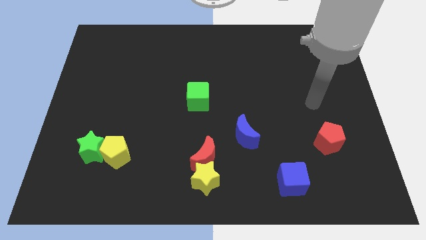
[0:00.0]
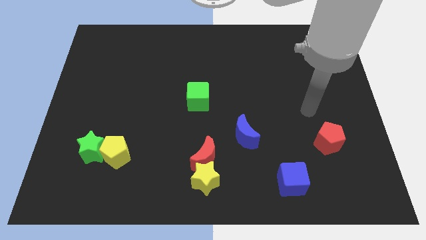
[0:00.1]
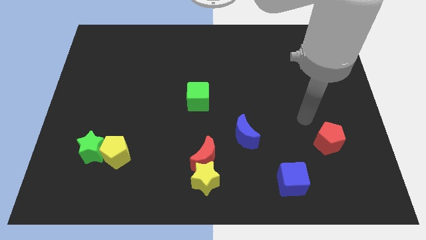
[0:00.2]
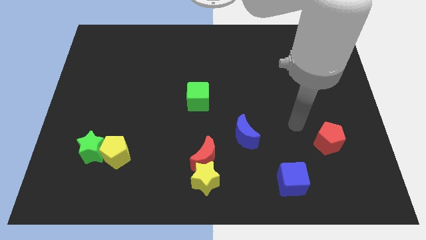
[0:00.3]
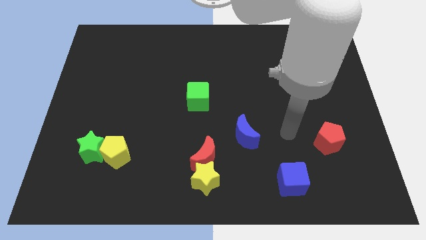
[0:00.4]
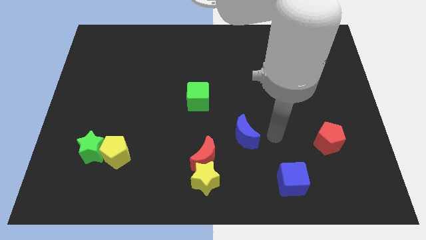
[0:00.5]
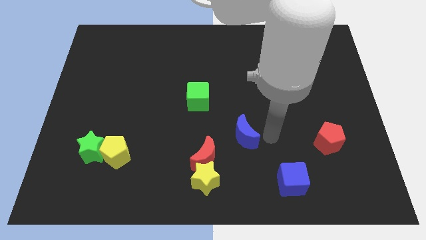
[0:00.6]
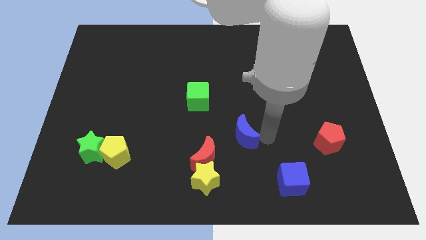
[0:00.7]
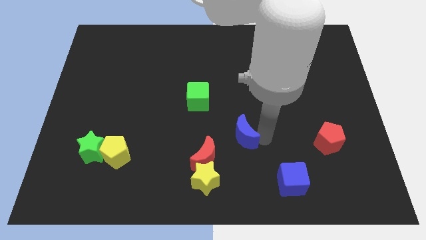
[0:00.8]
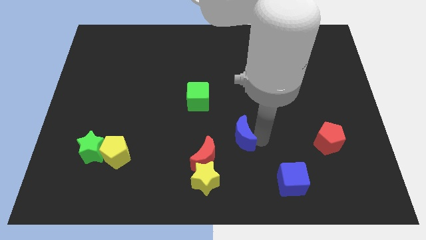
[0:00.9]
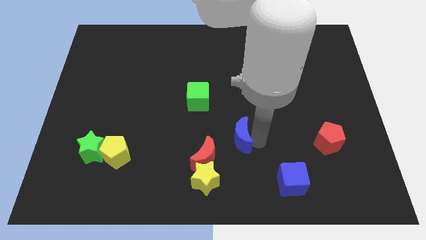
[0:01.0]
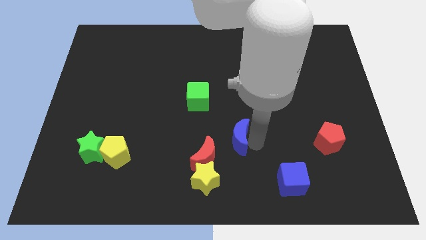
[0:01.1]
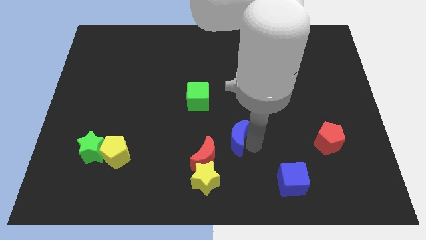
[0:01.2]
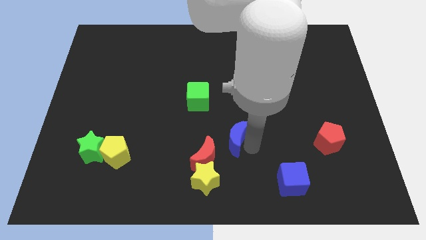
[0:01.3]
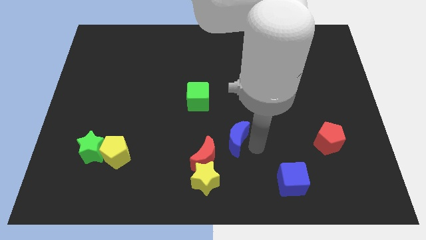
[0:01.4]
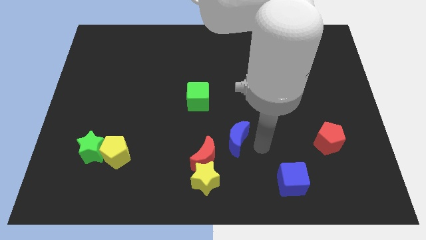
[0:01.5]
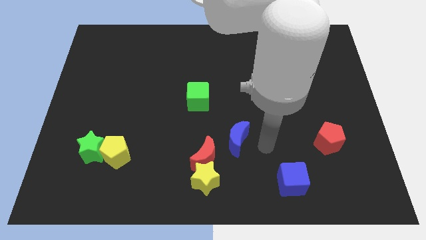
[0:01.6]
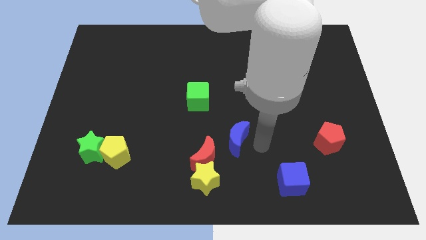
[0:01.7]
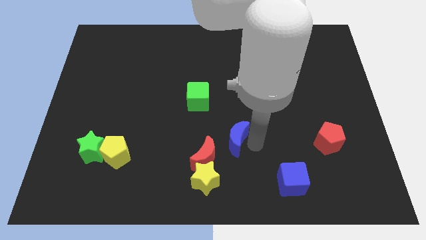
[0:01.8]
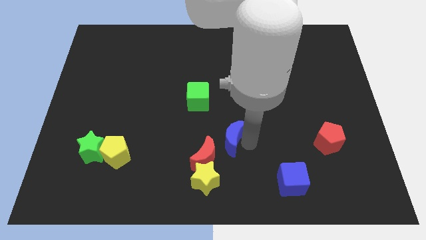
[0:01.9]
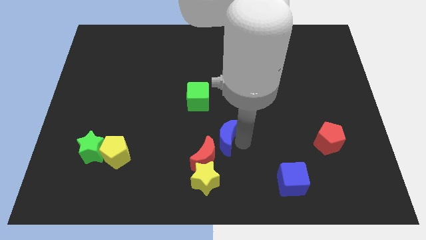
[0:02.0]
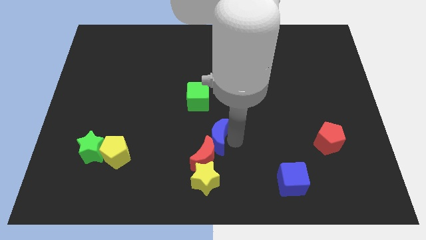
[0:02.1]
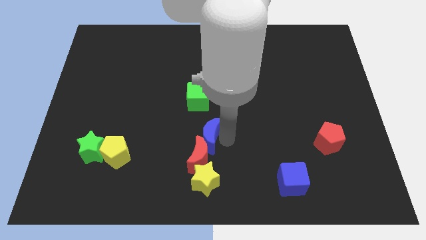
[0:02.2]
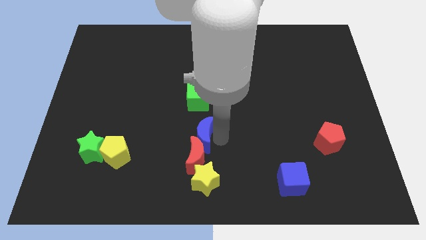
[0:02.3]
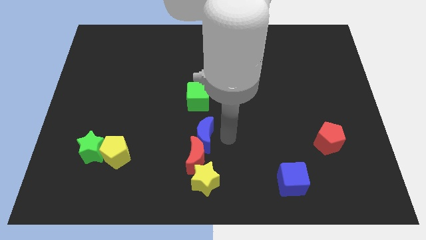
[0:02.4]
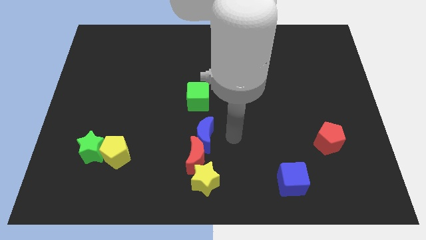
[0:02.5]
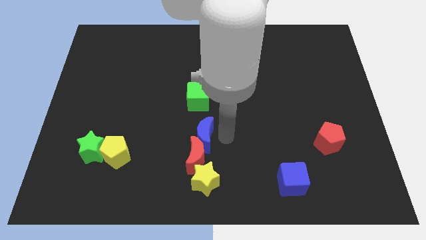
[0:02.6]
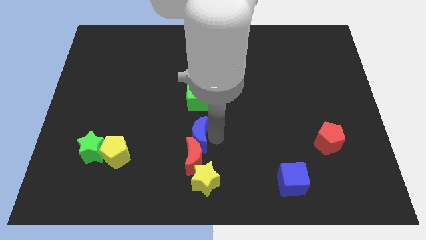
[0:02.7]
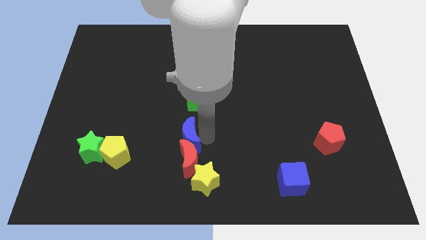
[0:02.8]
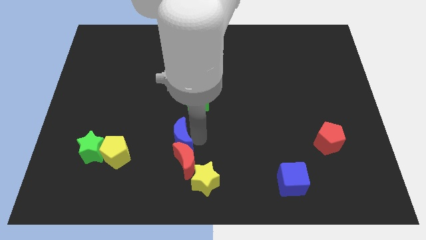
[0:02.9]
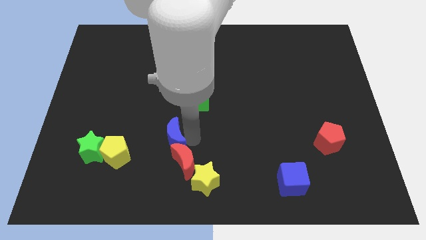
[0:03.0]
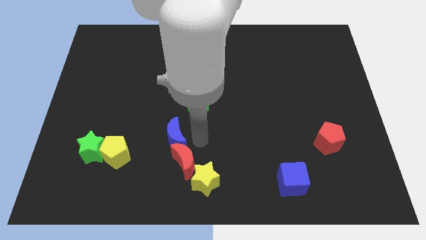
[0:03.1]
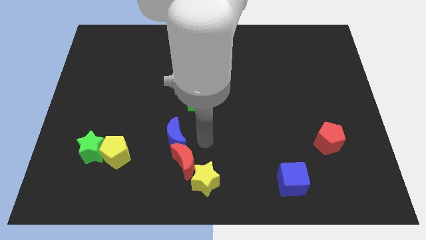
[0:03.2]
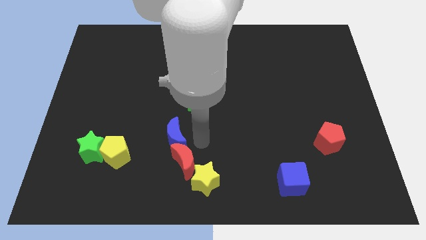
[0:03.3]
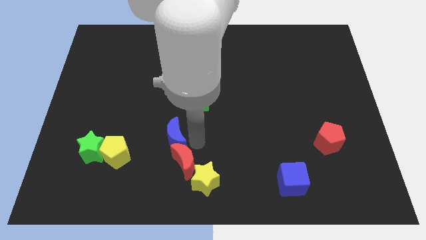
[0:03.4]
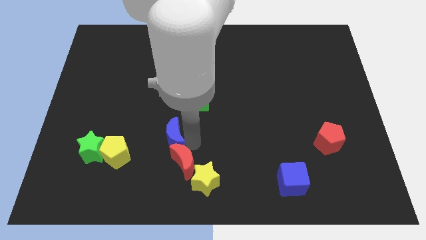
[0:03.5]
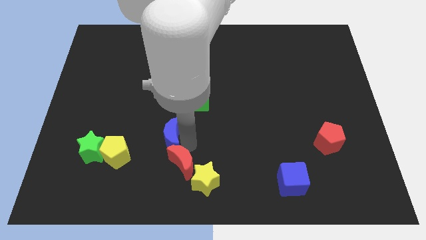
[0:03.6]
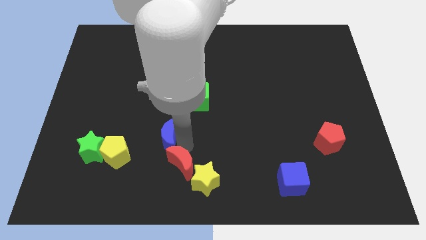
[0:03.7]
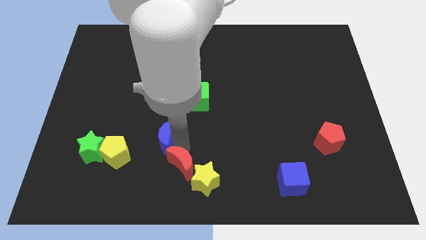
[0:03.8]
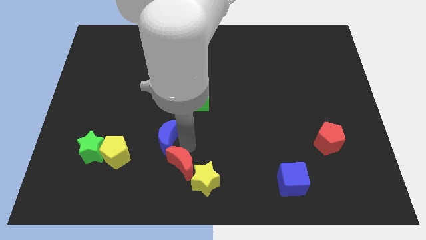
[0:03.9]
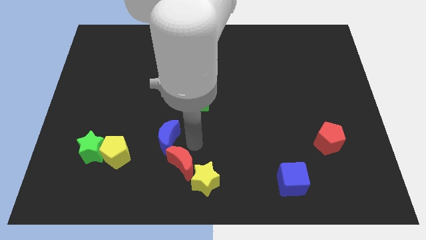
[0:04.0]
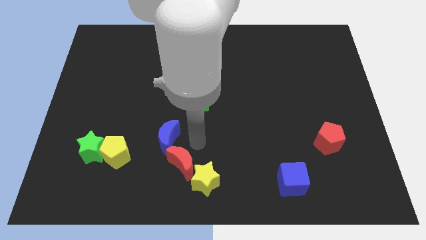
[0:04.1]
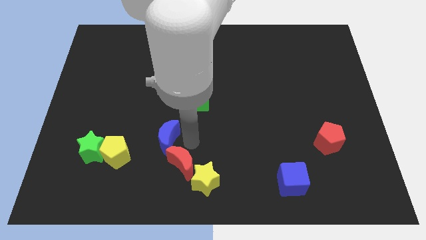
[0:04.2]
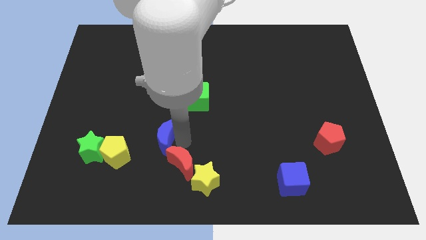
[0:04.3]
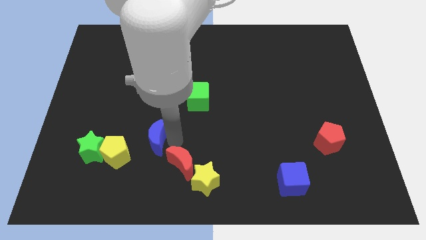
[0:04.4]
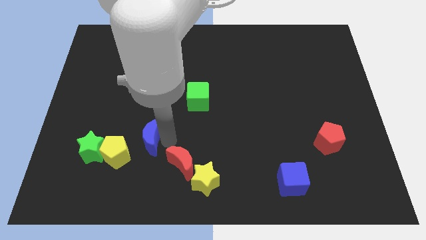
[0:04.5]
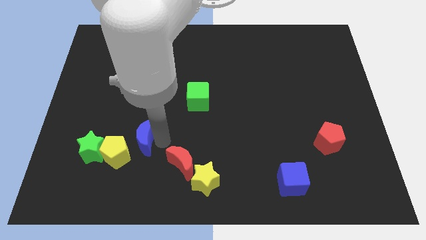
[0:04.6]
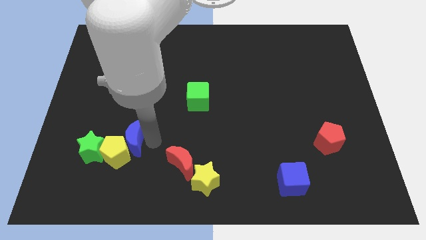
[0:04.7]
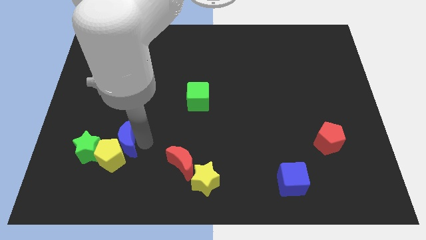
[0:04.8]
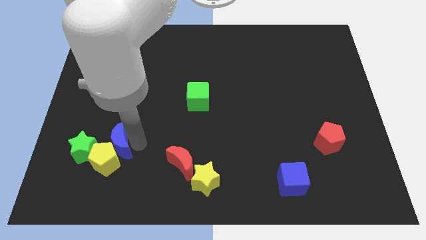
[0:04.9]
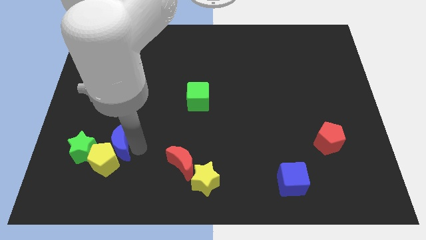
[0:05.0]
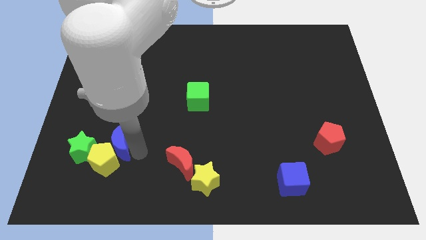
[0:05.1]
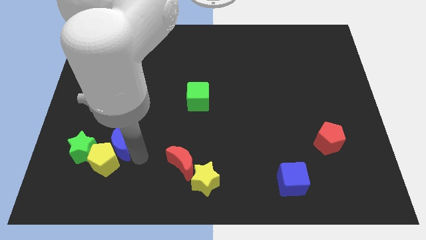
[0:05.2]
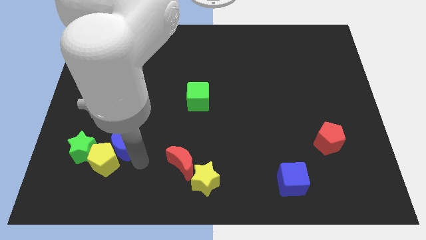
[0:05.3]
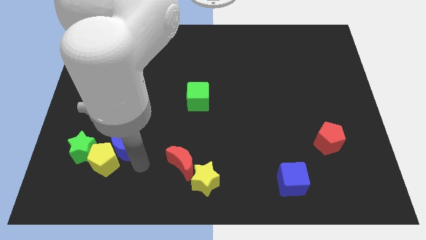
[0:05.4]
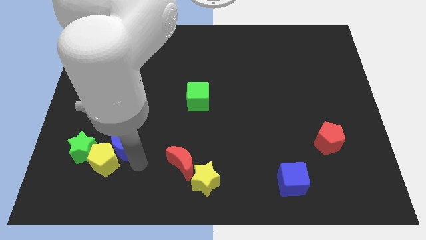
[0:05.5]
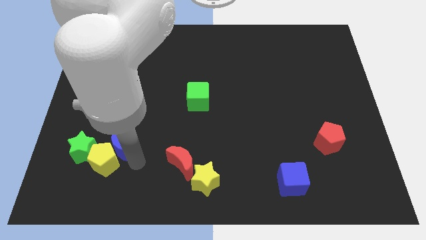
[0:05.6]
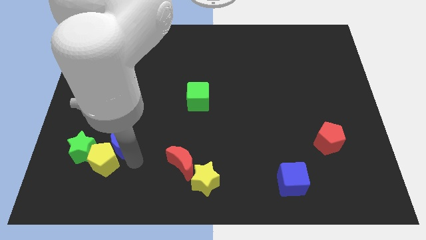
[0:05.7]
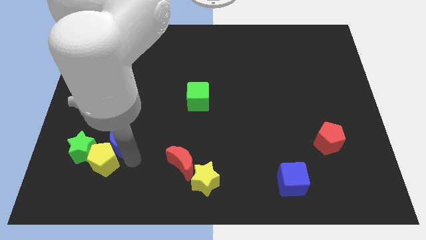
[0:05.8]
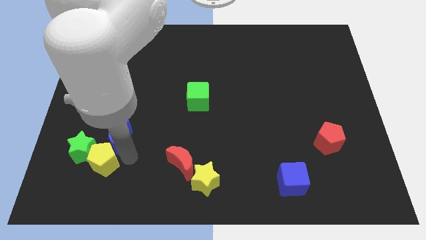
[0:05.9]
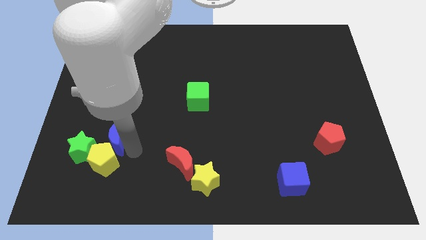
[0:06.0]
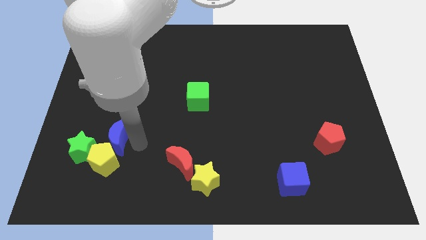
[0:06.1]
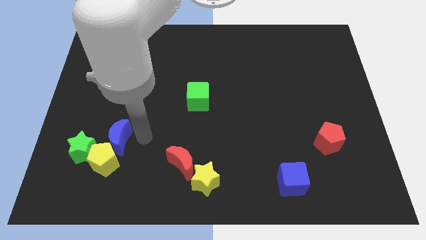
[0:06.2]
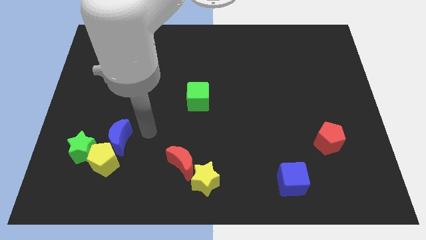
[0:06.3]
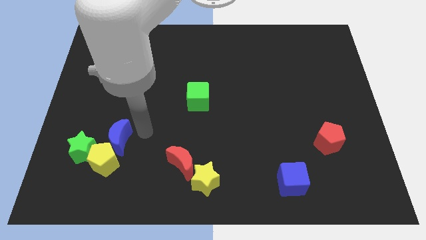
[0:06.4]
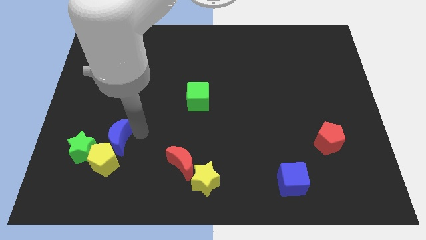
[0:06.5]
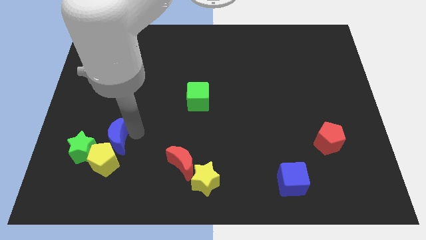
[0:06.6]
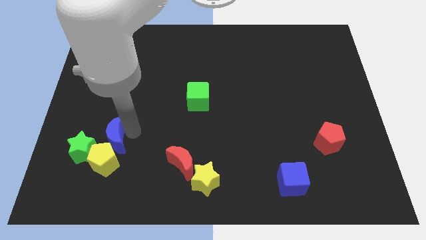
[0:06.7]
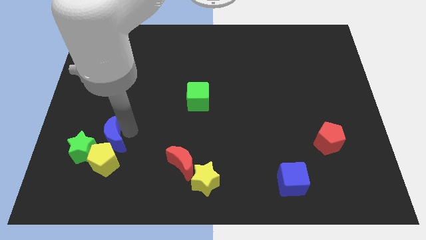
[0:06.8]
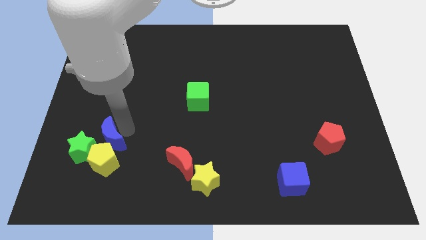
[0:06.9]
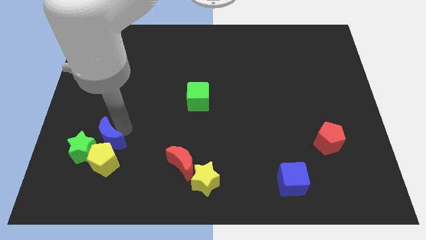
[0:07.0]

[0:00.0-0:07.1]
move the blue moon next to the green star
